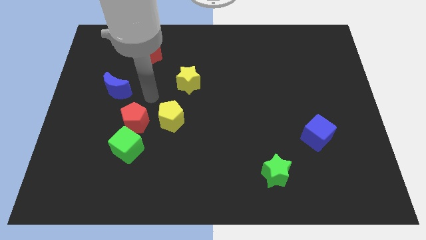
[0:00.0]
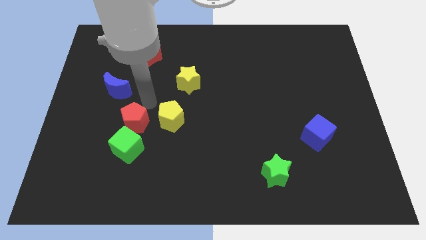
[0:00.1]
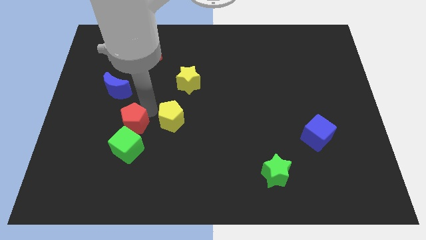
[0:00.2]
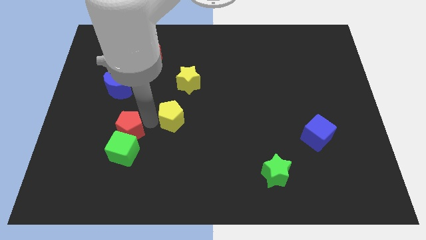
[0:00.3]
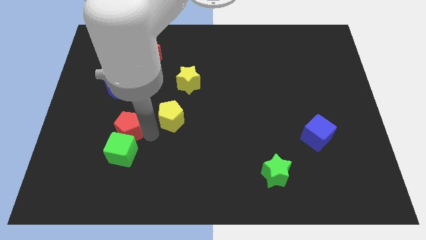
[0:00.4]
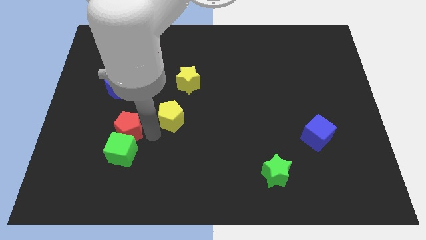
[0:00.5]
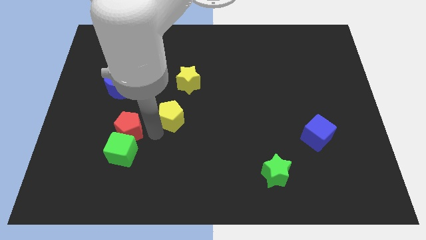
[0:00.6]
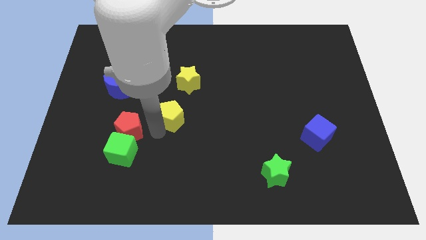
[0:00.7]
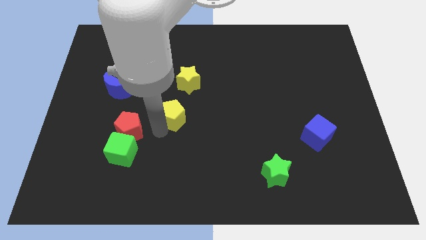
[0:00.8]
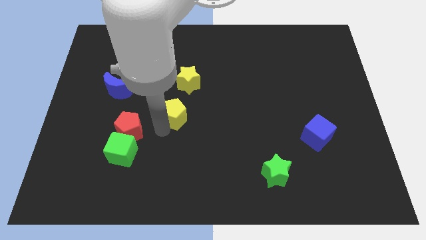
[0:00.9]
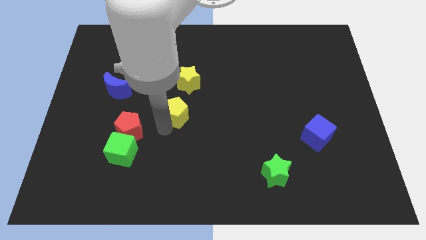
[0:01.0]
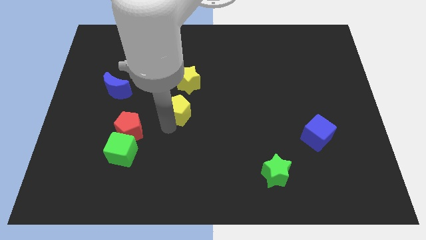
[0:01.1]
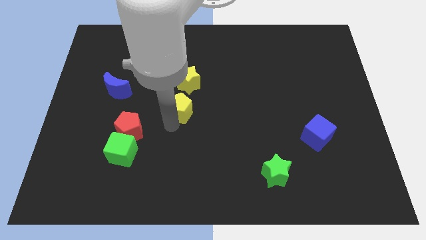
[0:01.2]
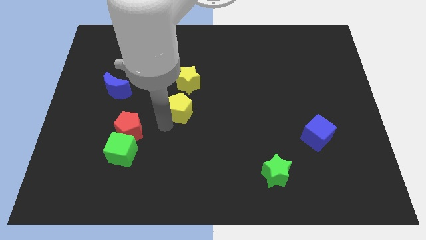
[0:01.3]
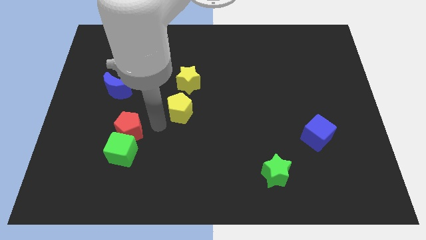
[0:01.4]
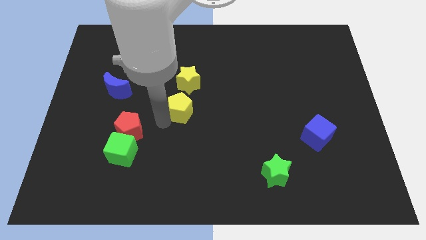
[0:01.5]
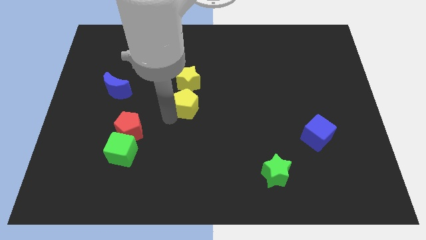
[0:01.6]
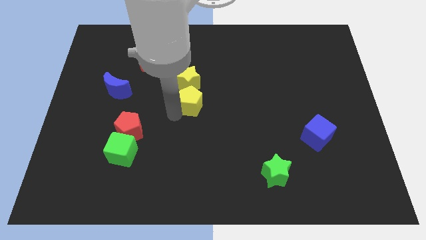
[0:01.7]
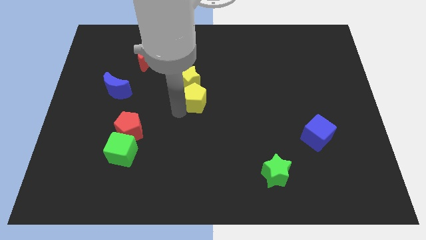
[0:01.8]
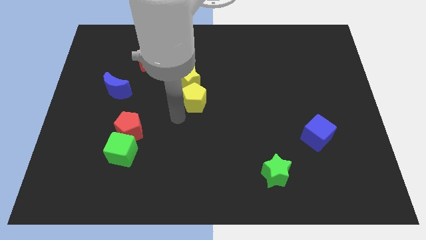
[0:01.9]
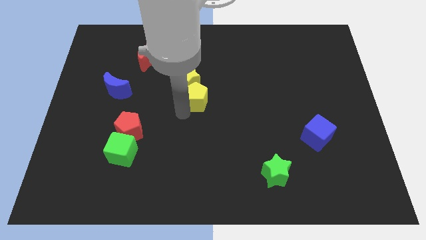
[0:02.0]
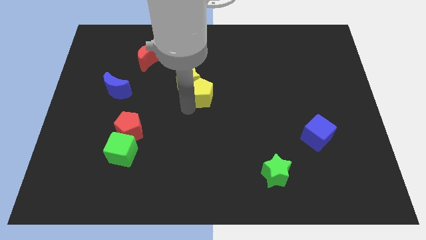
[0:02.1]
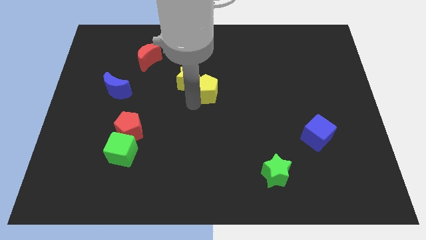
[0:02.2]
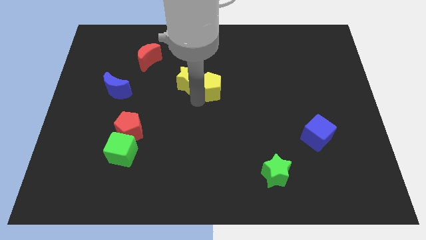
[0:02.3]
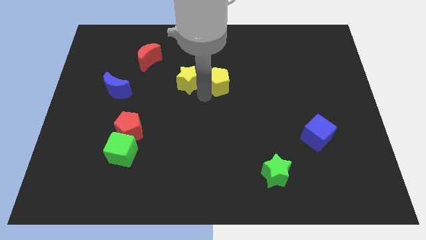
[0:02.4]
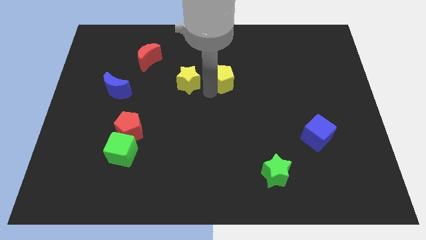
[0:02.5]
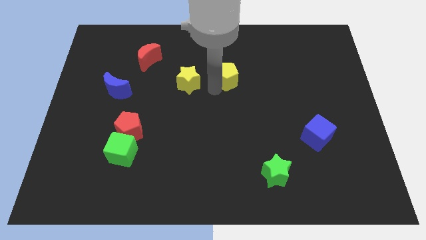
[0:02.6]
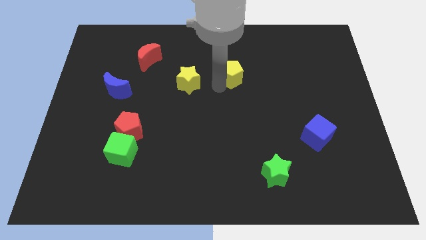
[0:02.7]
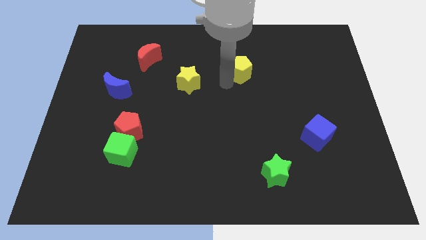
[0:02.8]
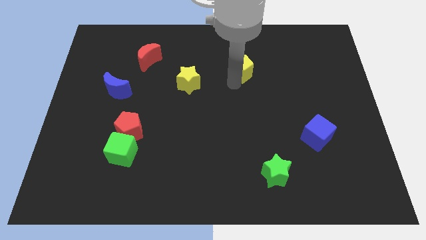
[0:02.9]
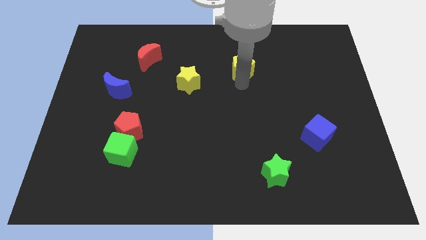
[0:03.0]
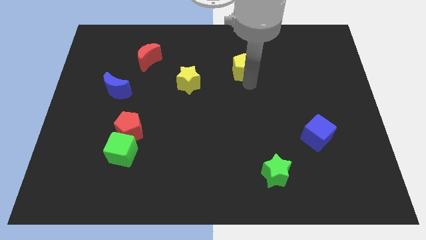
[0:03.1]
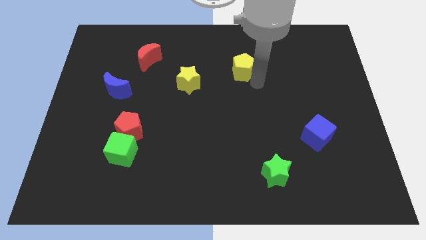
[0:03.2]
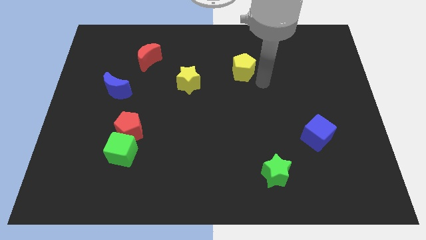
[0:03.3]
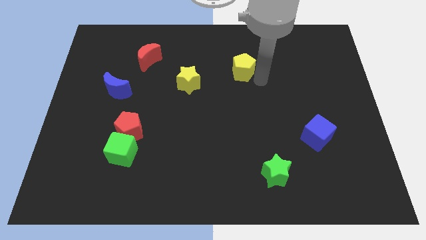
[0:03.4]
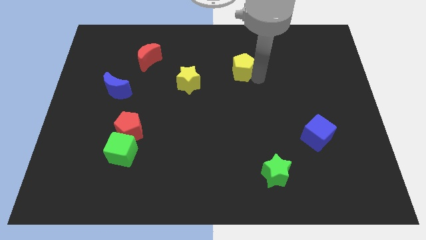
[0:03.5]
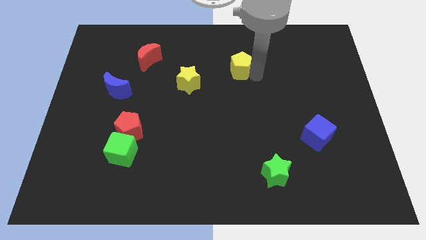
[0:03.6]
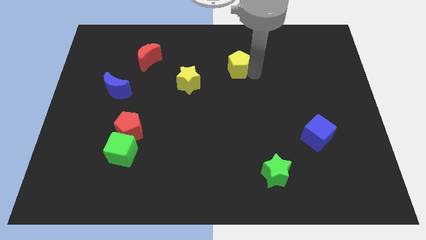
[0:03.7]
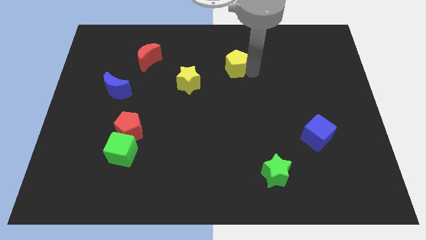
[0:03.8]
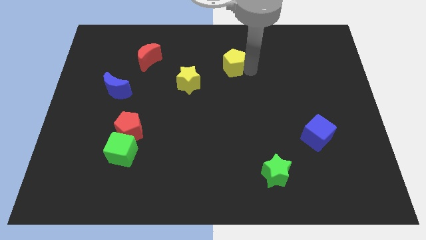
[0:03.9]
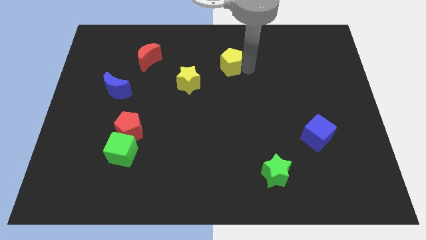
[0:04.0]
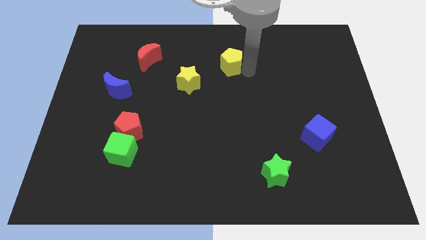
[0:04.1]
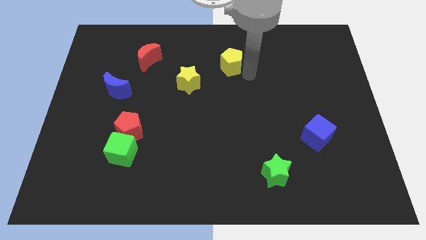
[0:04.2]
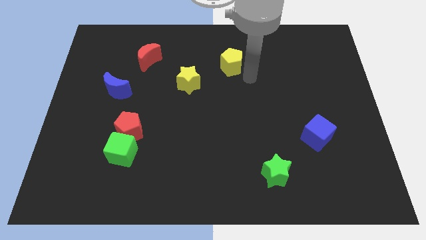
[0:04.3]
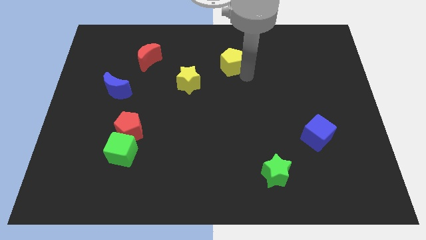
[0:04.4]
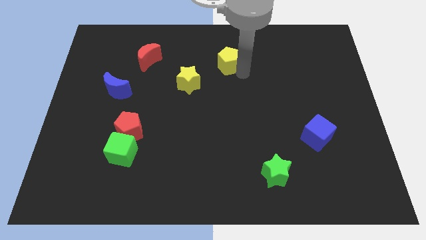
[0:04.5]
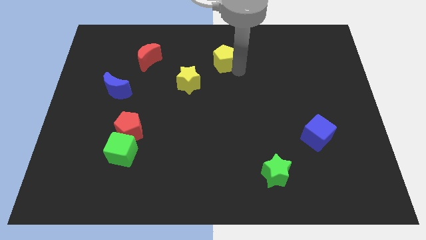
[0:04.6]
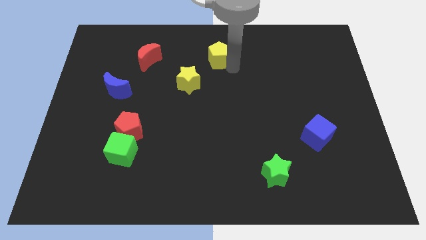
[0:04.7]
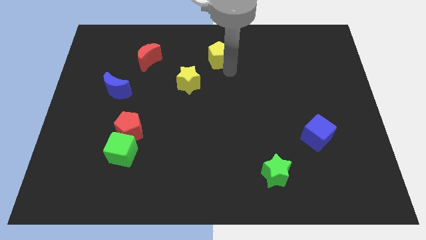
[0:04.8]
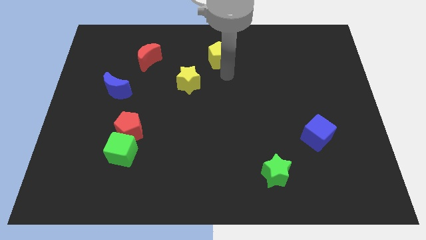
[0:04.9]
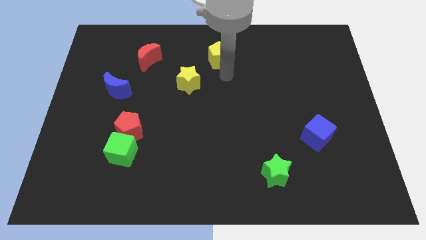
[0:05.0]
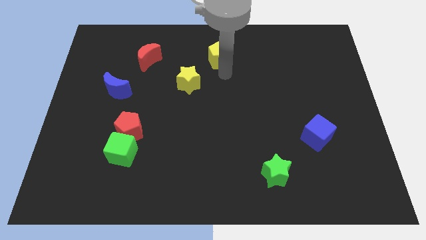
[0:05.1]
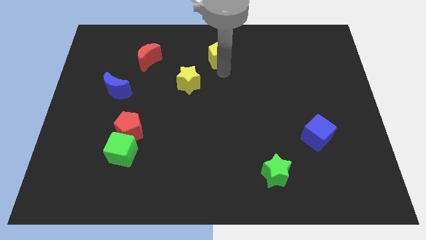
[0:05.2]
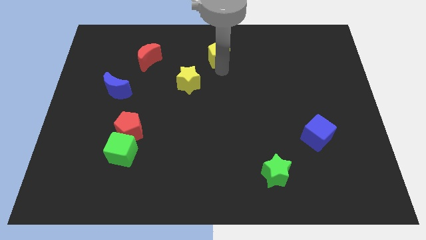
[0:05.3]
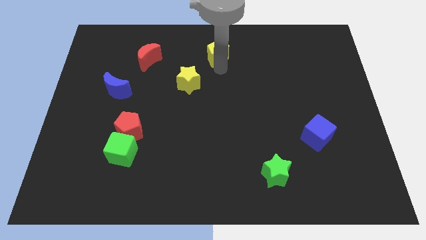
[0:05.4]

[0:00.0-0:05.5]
slide the yellow pentagon to the top side

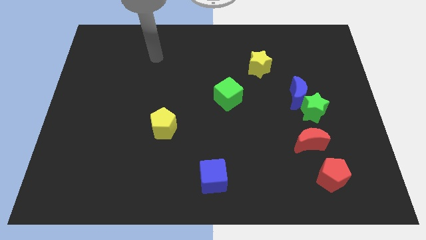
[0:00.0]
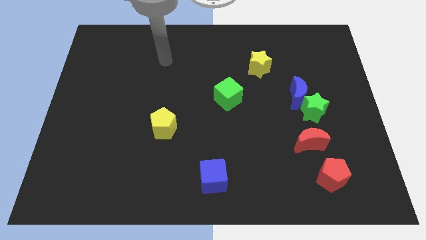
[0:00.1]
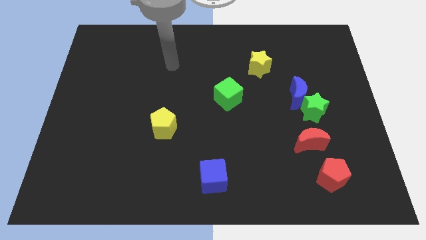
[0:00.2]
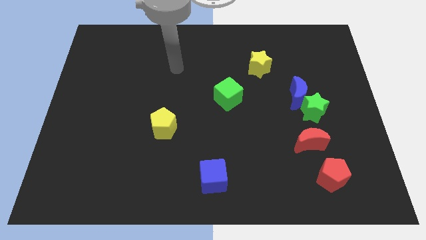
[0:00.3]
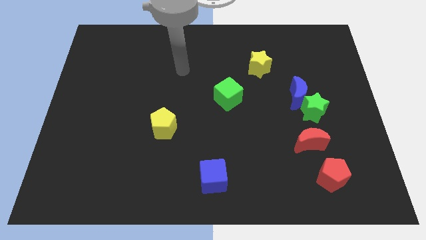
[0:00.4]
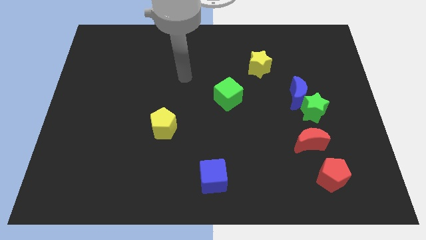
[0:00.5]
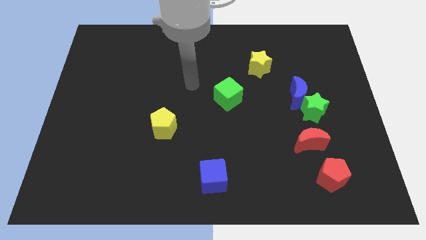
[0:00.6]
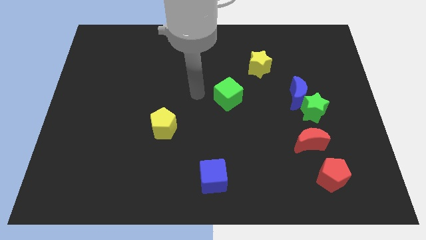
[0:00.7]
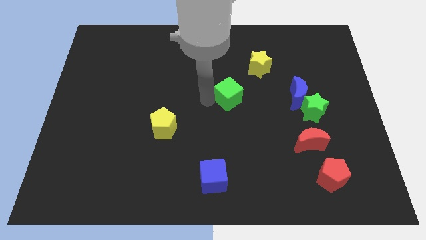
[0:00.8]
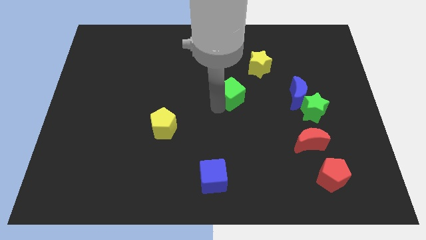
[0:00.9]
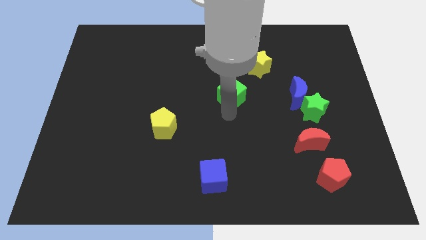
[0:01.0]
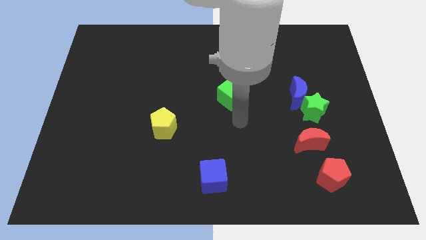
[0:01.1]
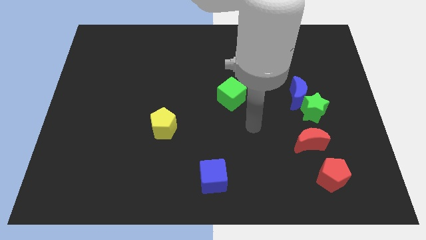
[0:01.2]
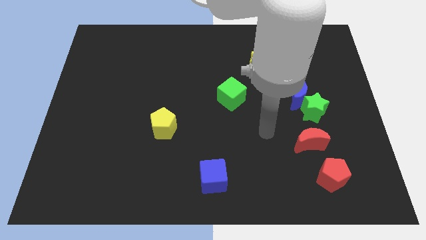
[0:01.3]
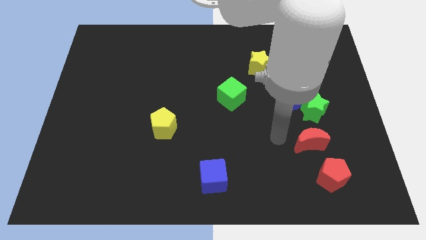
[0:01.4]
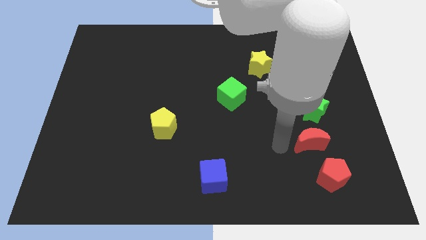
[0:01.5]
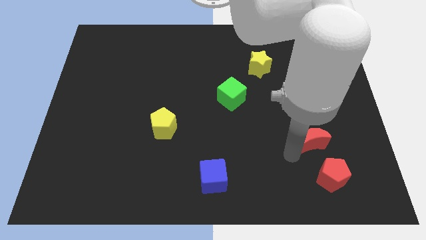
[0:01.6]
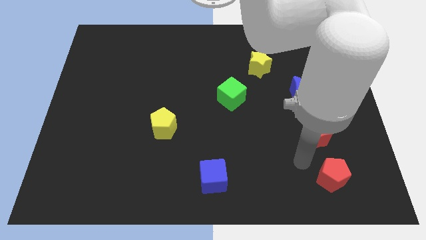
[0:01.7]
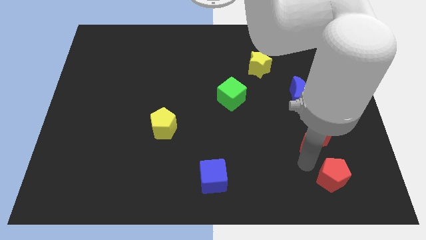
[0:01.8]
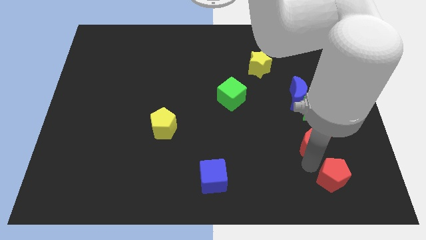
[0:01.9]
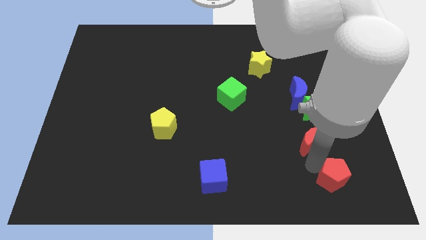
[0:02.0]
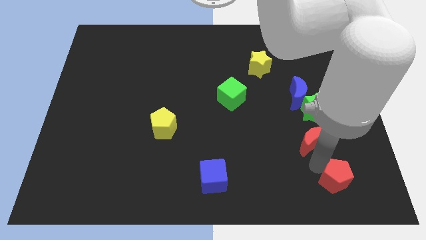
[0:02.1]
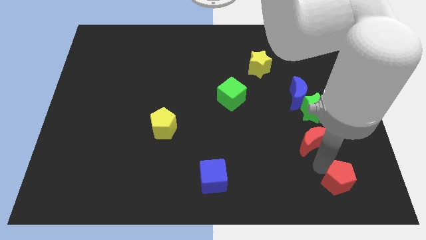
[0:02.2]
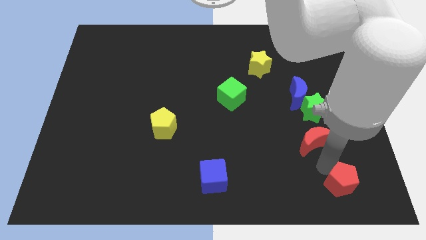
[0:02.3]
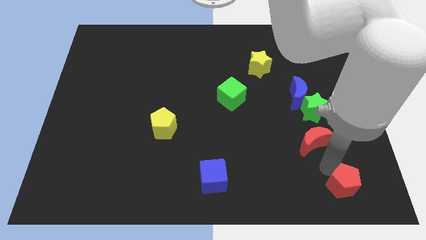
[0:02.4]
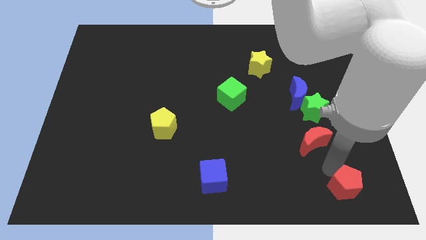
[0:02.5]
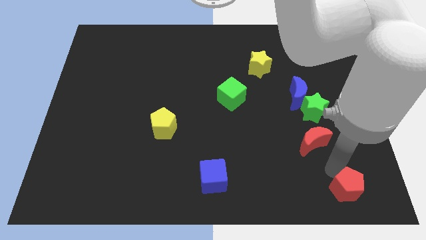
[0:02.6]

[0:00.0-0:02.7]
move the red pentagon to the bottom right of the board
